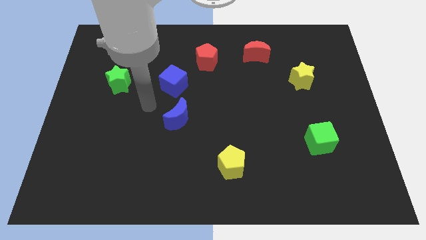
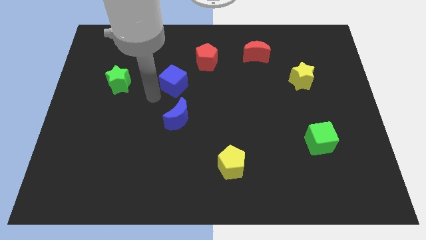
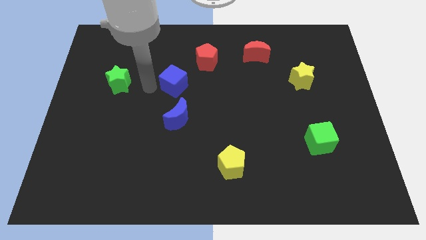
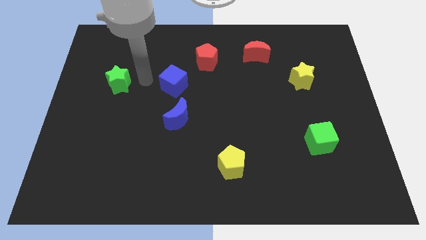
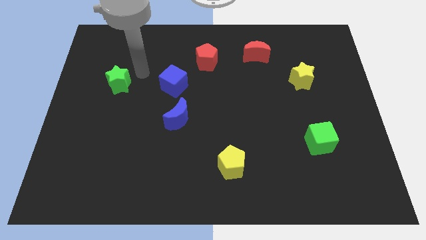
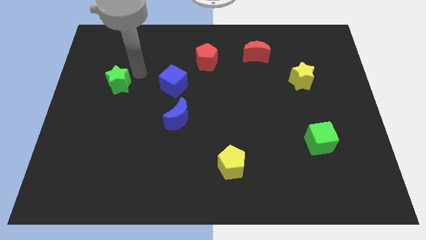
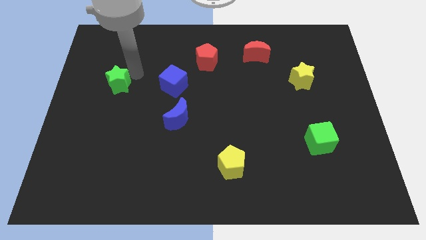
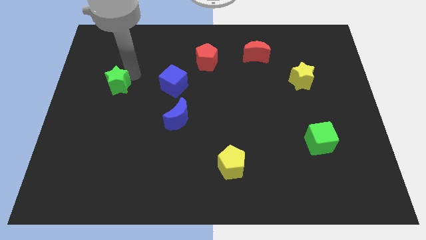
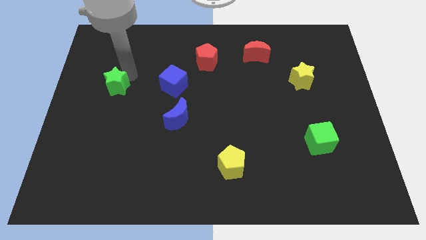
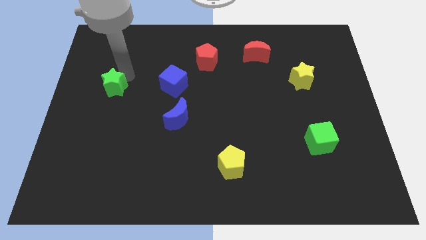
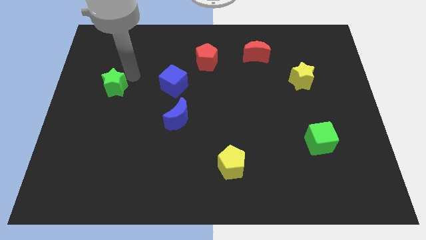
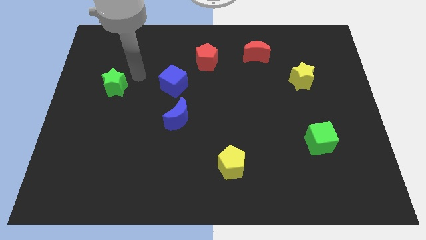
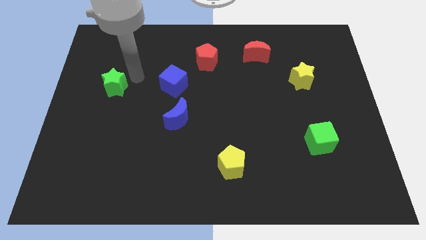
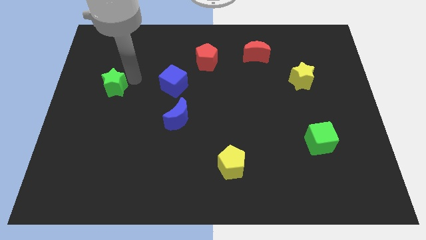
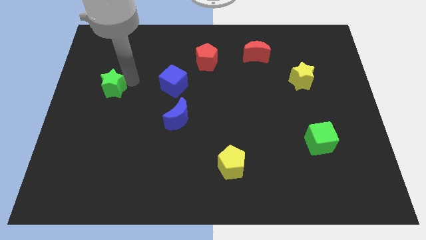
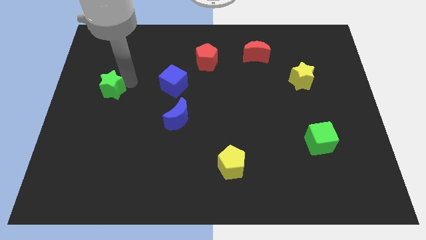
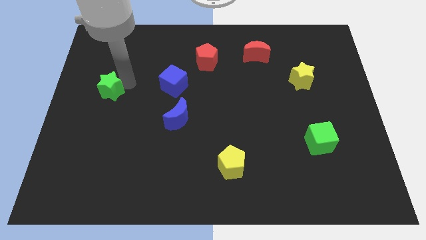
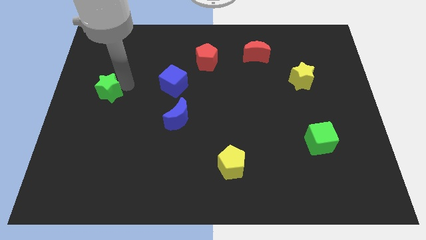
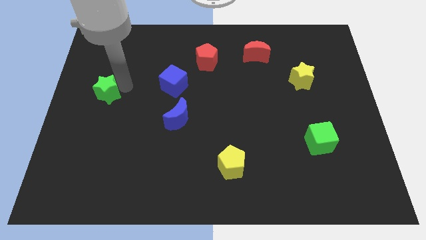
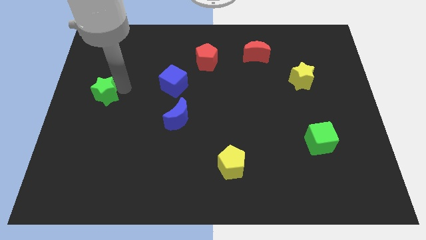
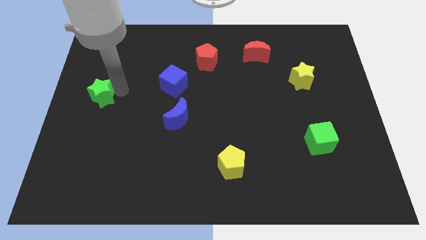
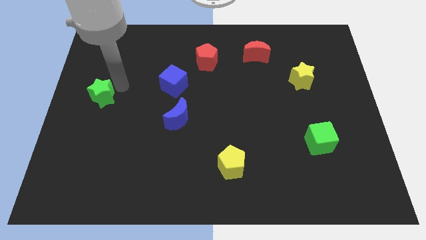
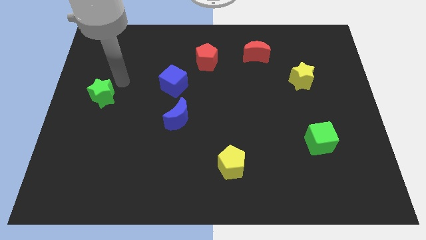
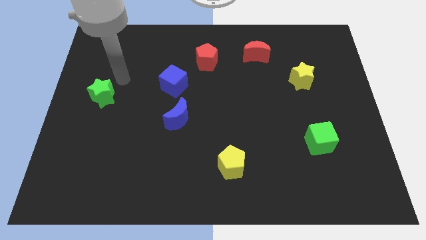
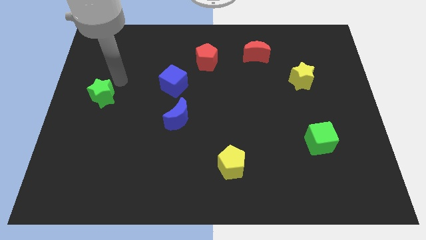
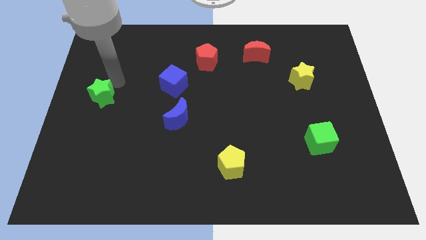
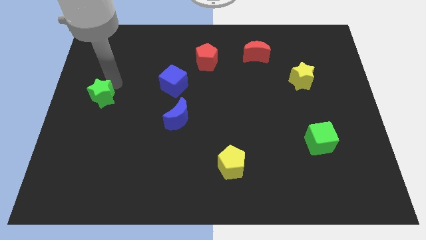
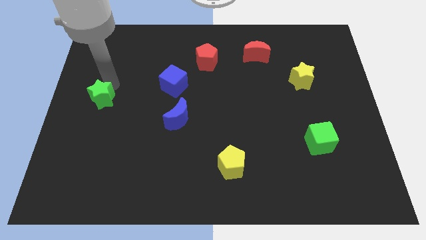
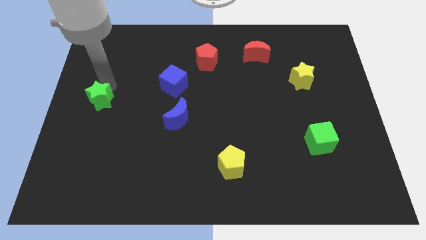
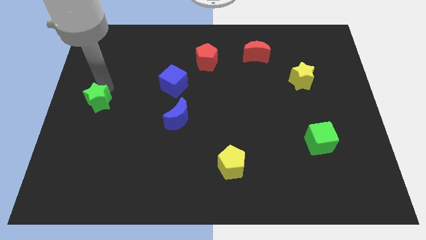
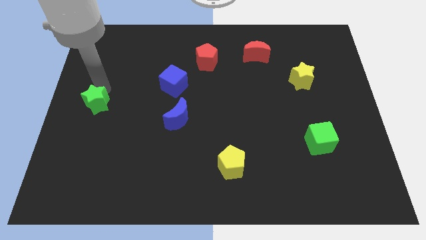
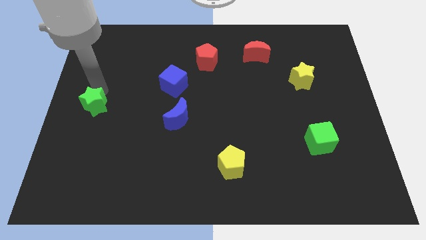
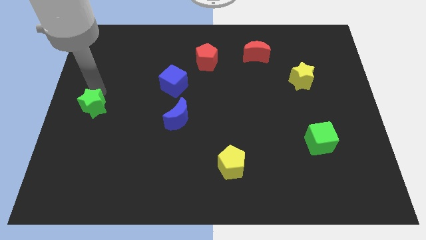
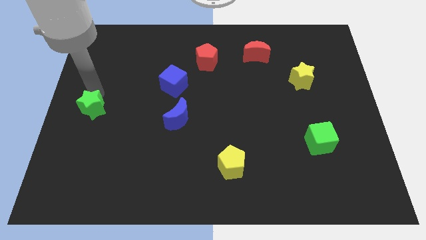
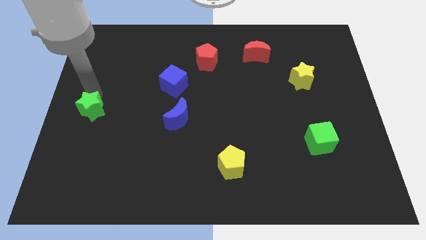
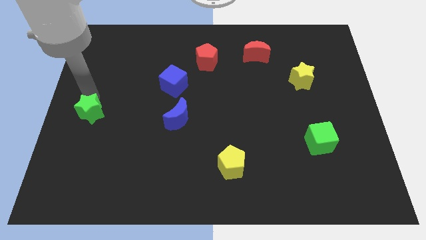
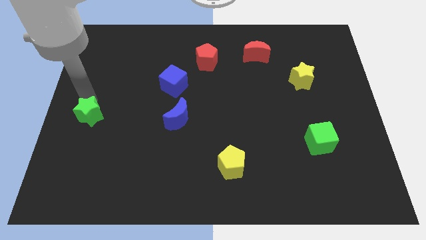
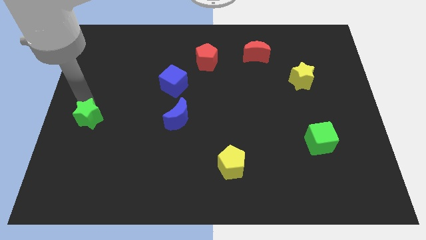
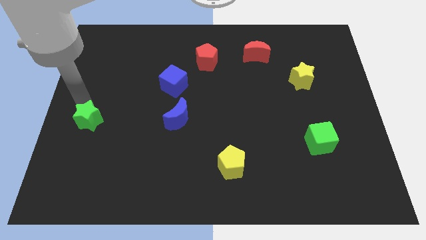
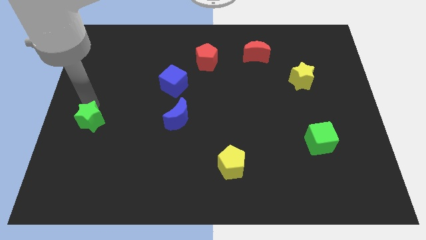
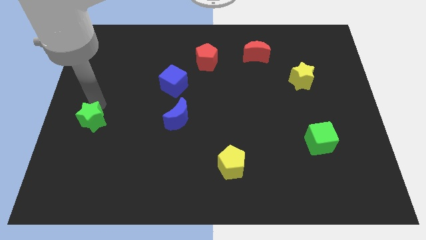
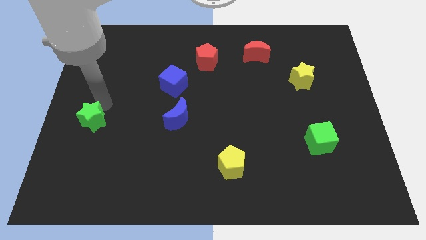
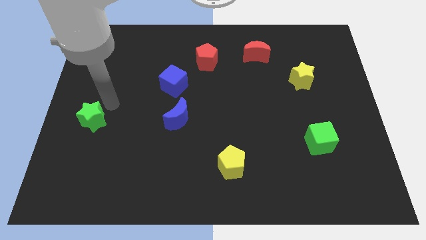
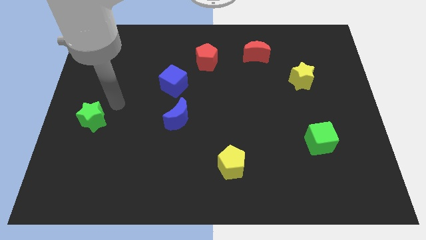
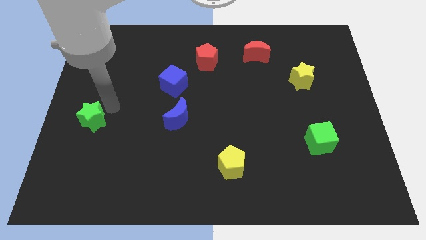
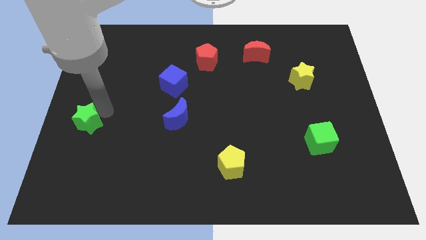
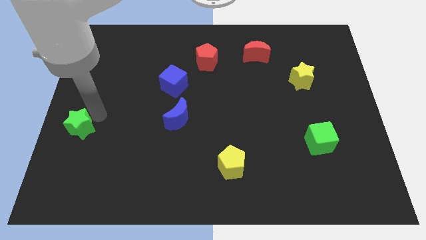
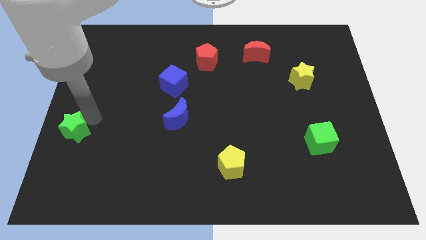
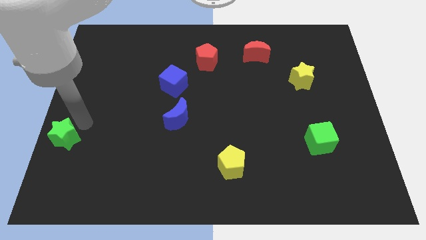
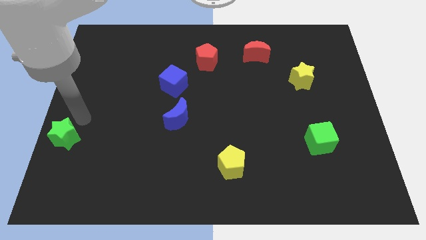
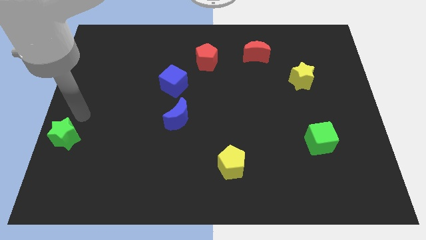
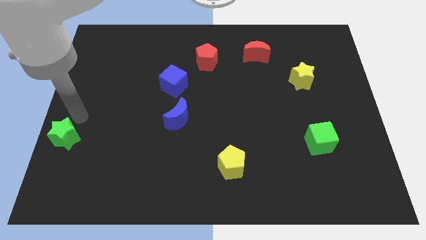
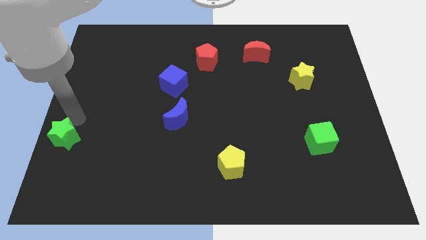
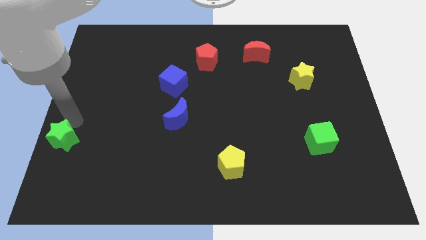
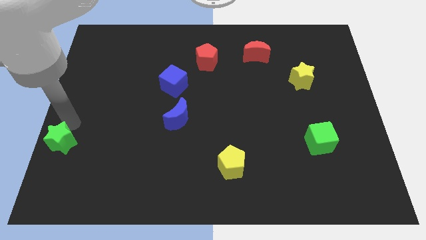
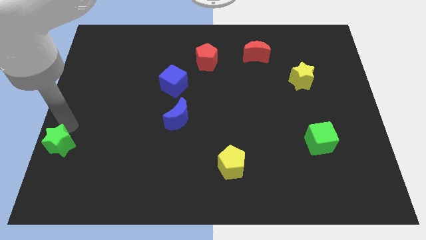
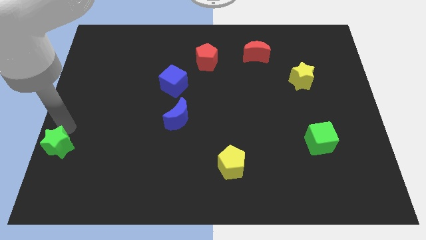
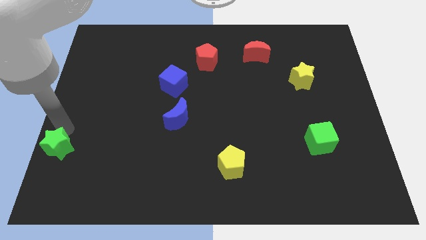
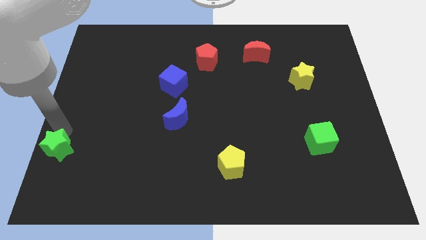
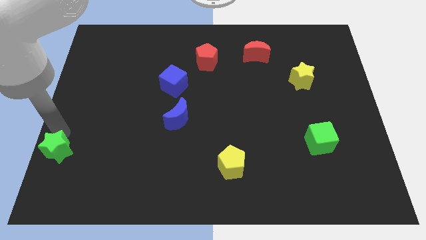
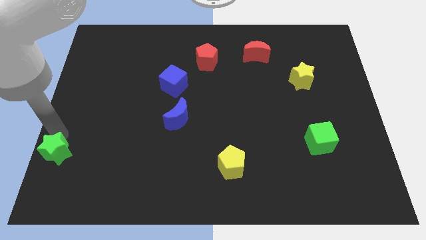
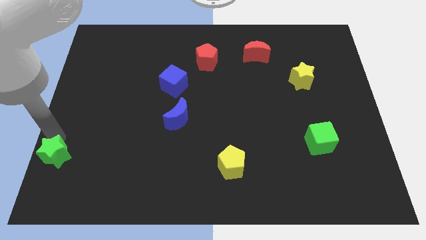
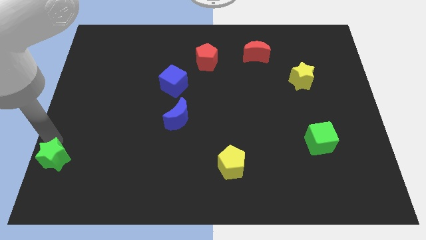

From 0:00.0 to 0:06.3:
put the green star to the bottom left of the board
